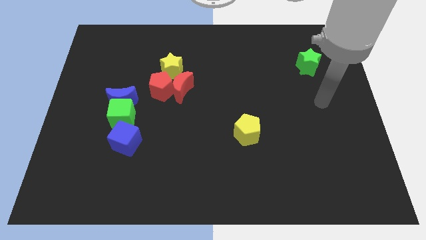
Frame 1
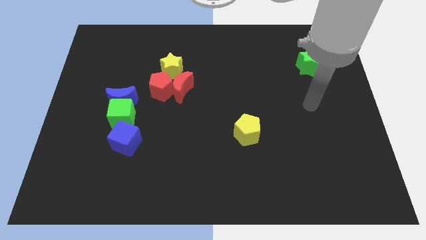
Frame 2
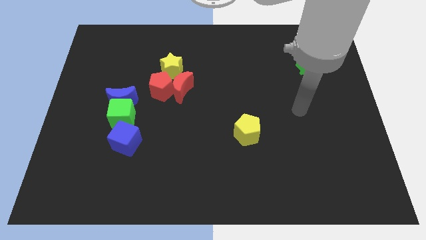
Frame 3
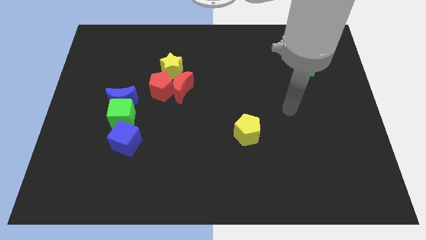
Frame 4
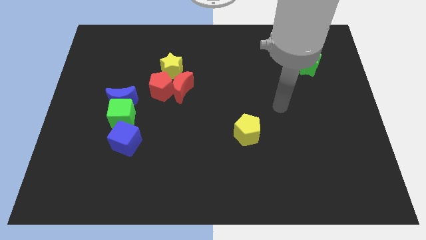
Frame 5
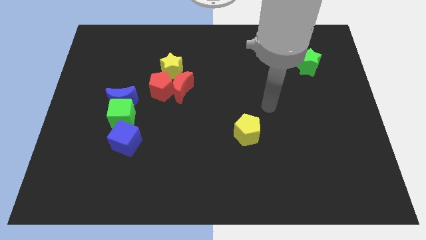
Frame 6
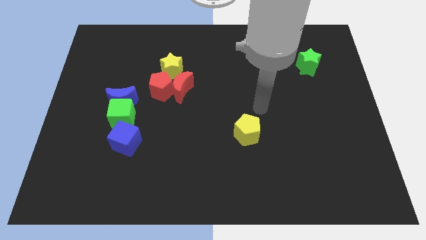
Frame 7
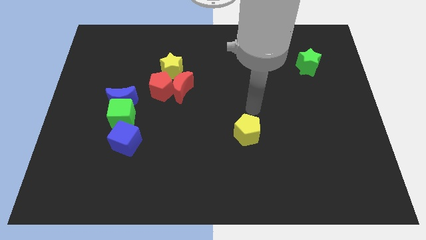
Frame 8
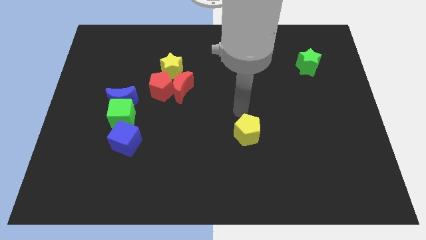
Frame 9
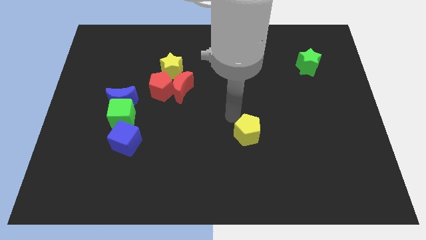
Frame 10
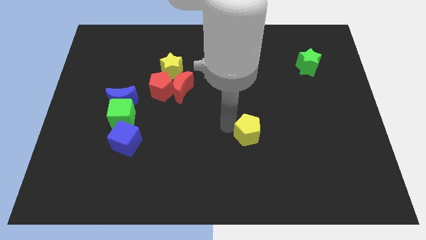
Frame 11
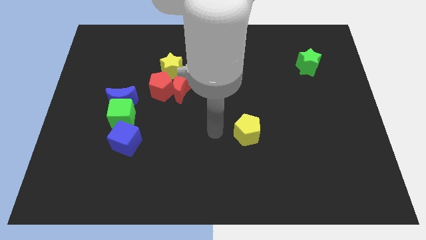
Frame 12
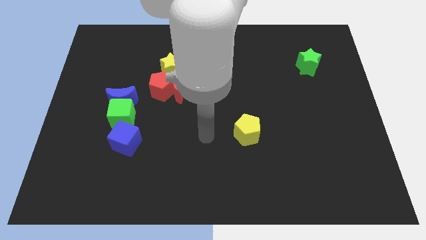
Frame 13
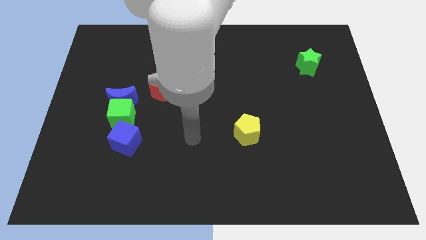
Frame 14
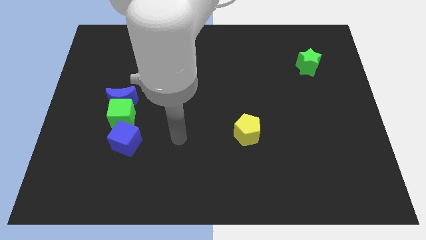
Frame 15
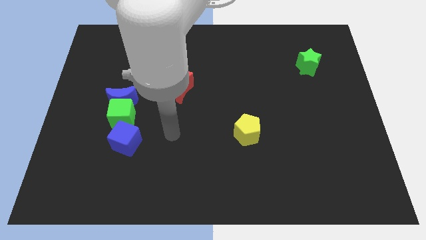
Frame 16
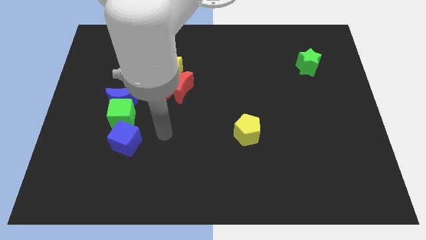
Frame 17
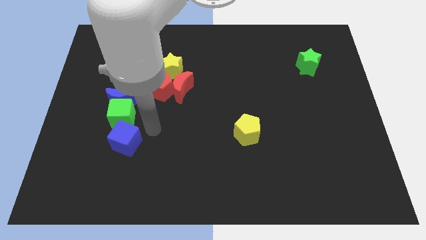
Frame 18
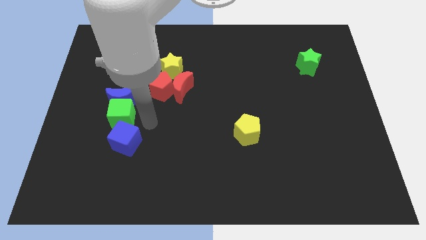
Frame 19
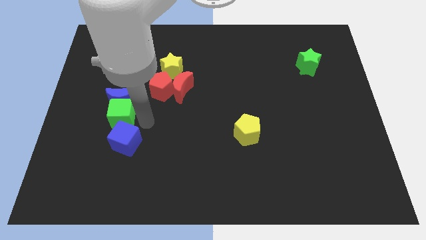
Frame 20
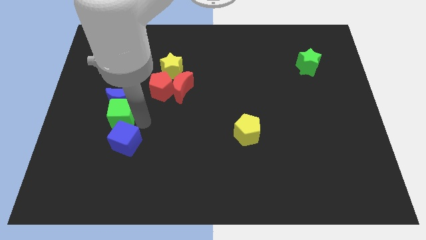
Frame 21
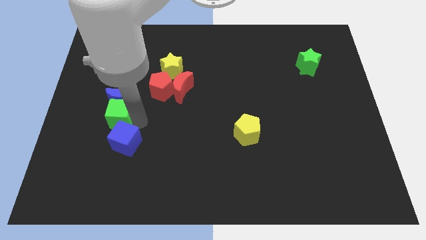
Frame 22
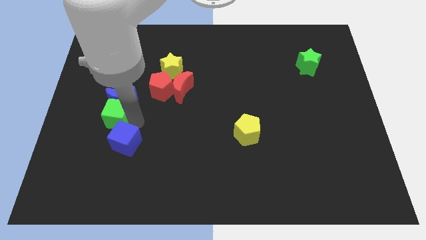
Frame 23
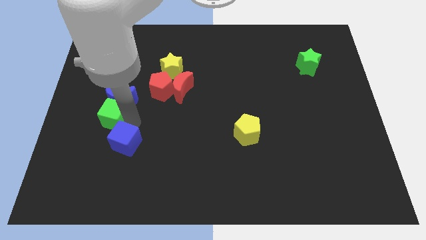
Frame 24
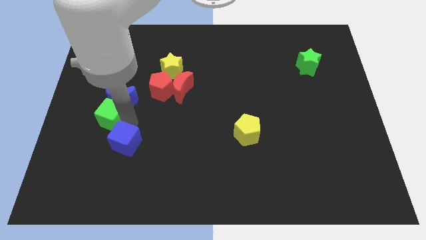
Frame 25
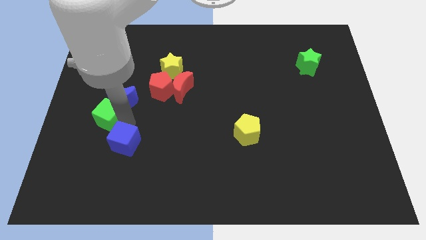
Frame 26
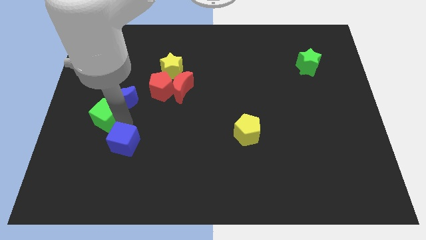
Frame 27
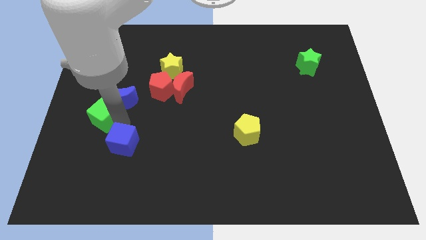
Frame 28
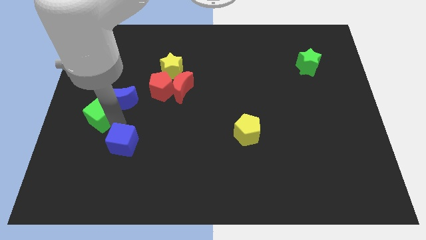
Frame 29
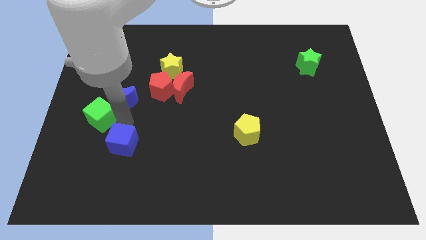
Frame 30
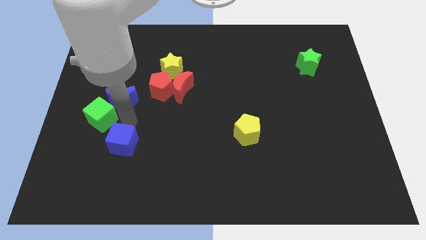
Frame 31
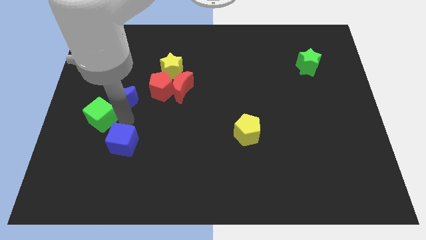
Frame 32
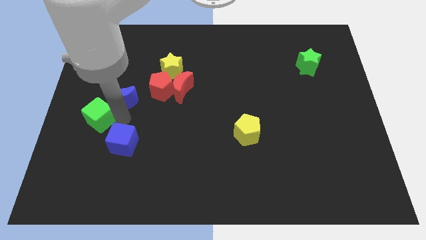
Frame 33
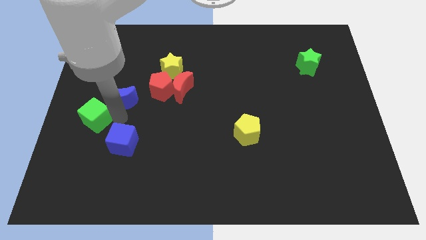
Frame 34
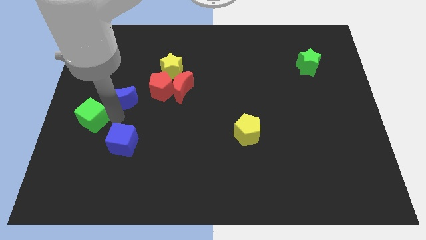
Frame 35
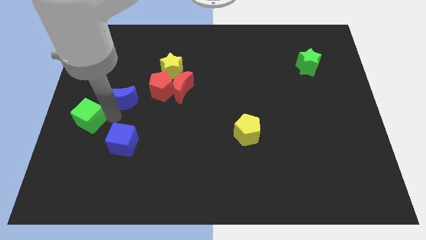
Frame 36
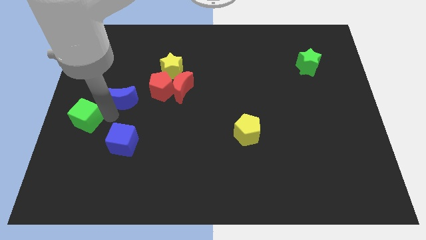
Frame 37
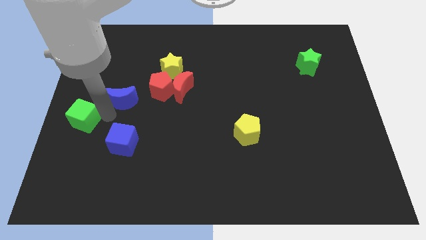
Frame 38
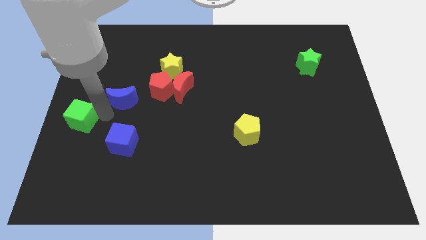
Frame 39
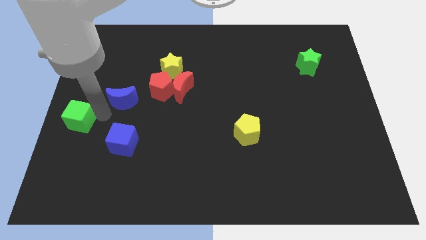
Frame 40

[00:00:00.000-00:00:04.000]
separate the green cube from the blue moon and blue cube

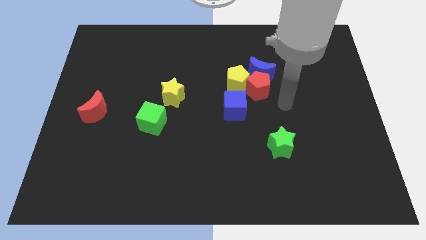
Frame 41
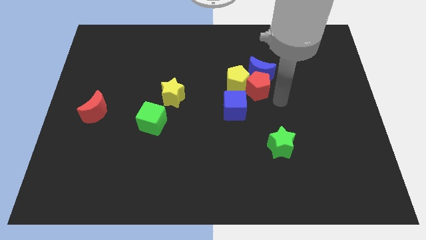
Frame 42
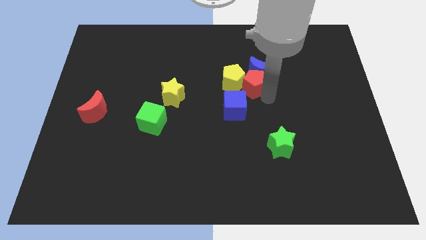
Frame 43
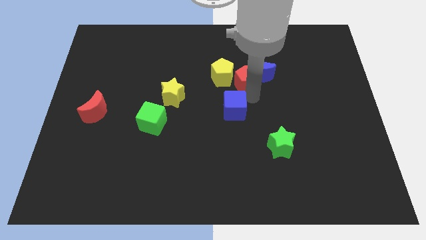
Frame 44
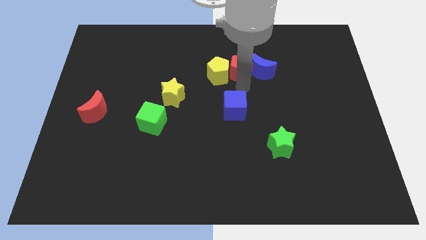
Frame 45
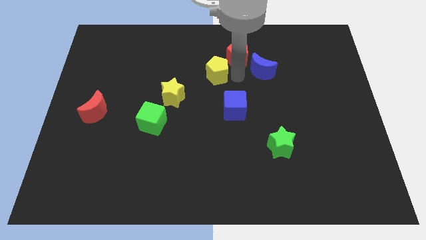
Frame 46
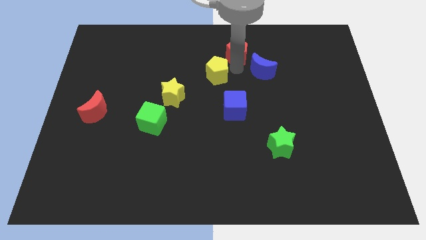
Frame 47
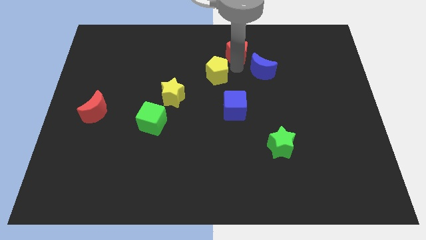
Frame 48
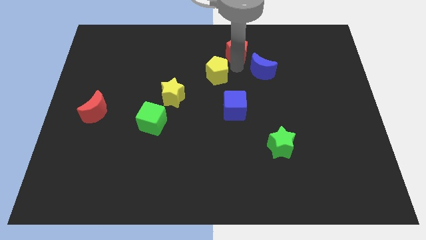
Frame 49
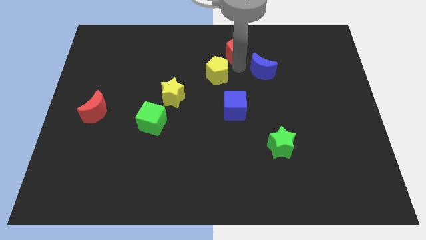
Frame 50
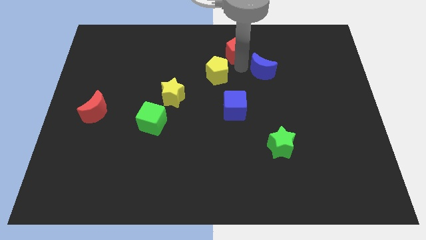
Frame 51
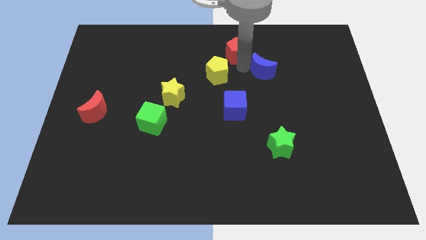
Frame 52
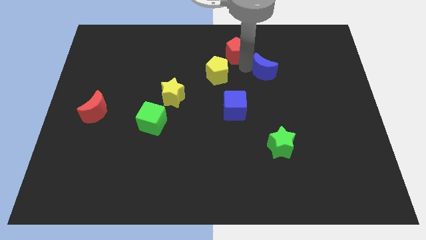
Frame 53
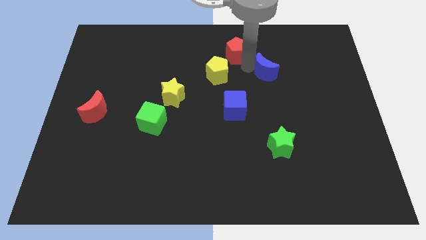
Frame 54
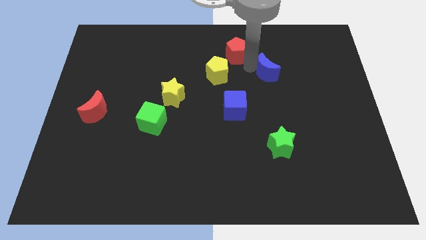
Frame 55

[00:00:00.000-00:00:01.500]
move the blue moon away from the red pentagon and yellow pentagon

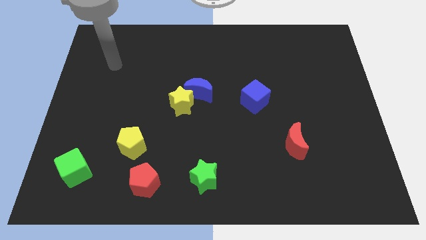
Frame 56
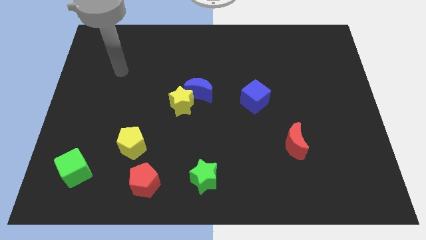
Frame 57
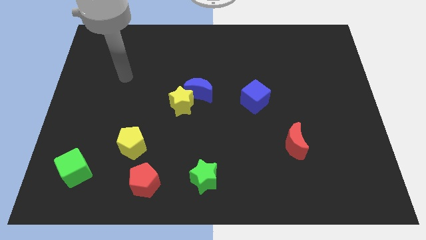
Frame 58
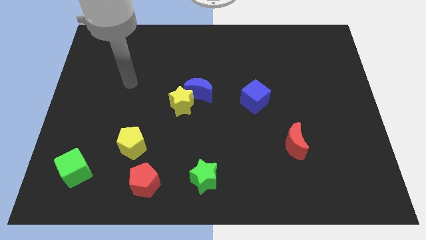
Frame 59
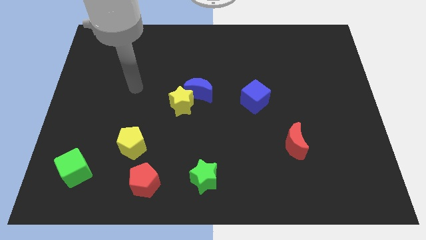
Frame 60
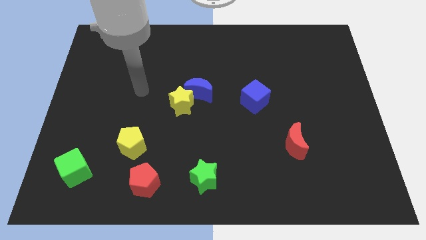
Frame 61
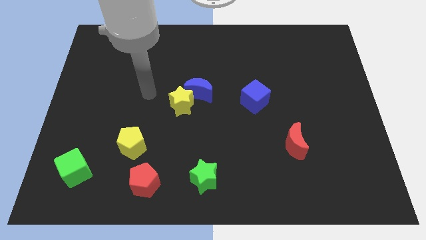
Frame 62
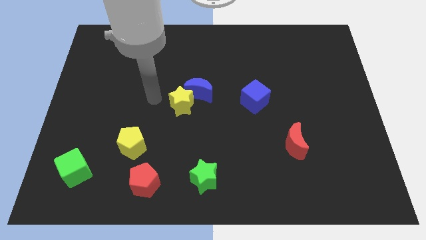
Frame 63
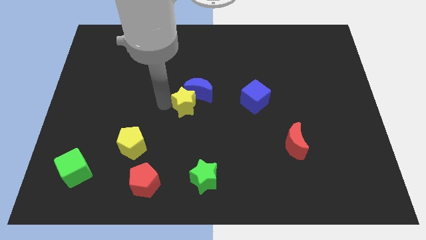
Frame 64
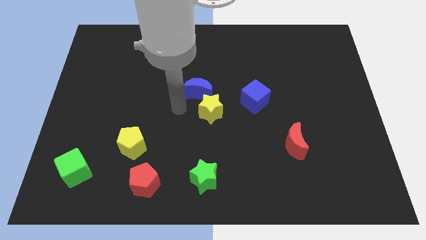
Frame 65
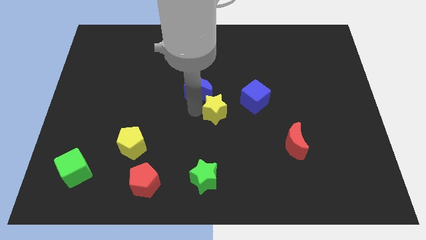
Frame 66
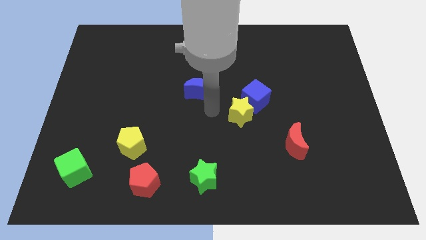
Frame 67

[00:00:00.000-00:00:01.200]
move the blue moon away from the yellow star

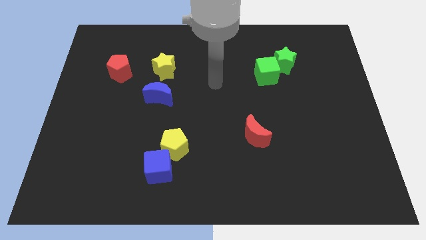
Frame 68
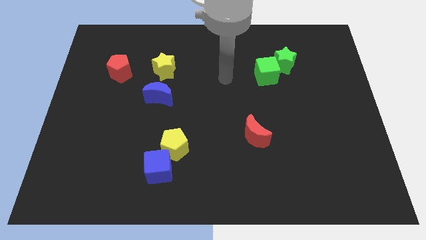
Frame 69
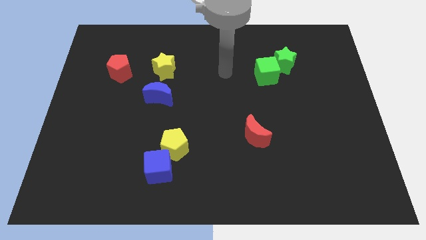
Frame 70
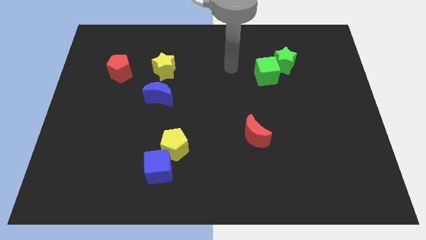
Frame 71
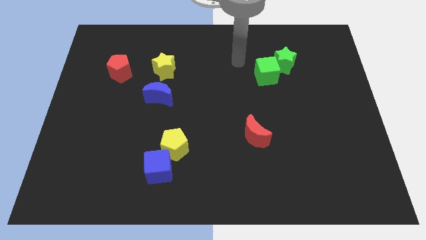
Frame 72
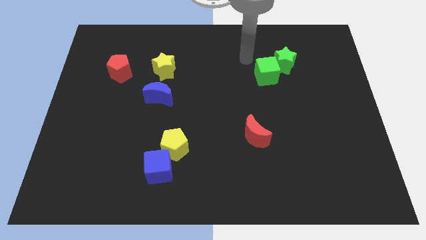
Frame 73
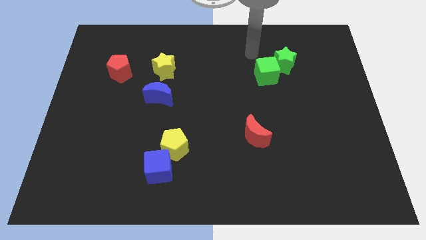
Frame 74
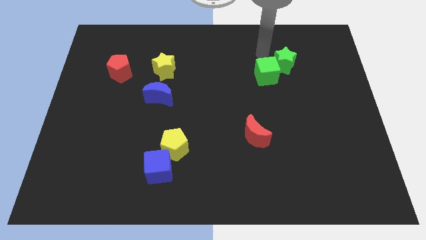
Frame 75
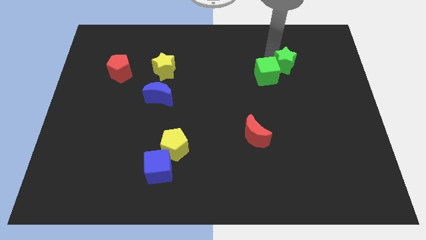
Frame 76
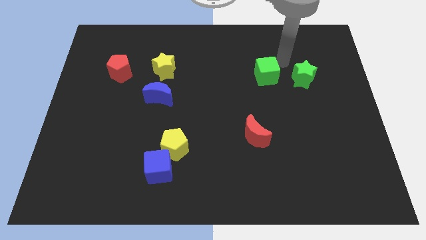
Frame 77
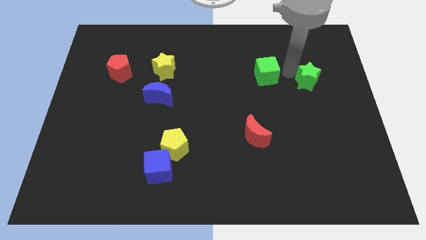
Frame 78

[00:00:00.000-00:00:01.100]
move the green cube away from the green star

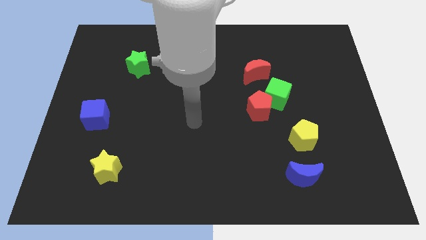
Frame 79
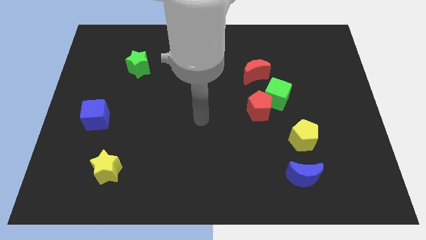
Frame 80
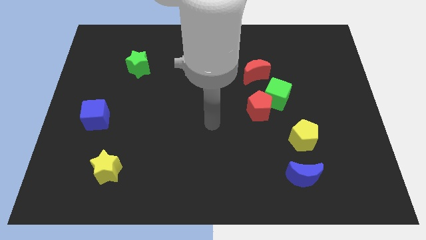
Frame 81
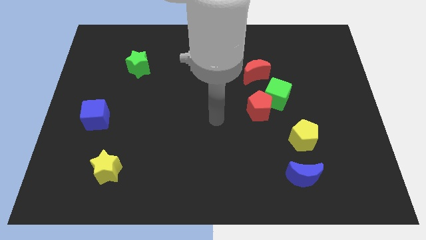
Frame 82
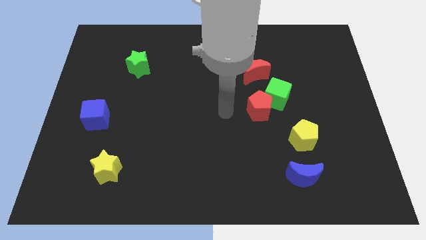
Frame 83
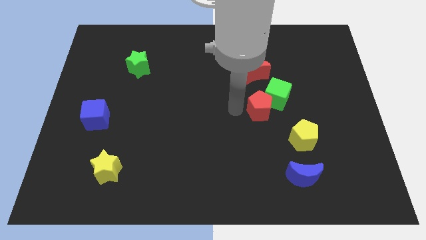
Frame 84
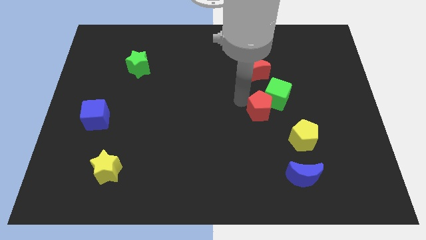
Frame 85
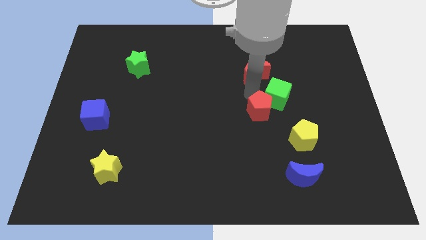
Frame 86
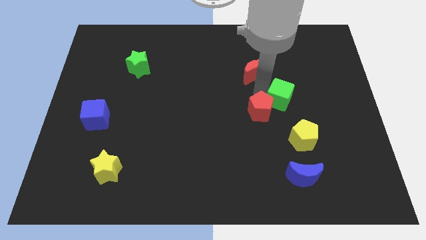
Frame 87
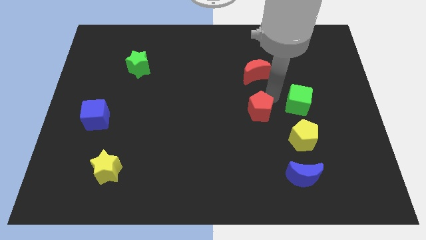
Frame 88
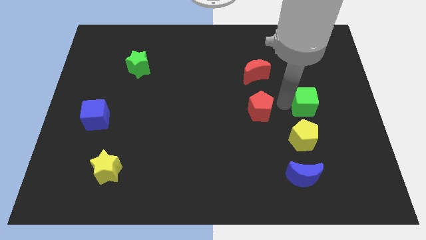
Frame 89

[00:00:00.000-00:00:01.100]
pull the red pentagon apart from the green cube

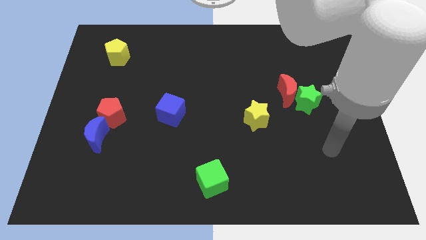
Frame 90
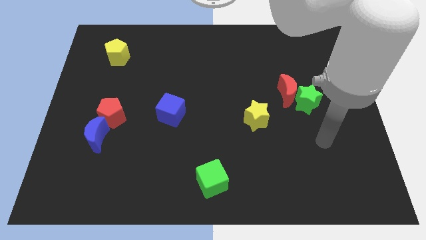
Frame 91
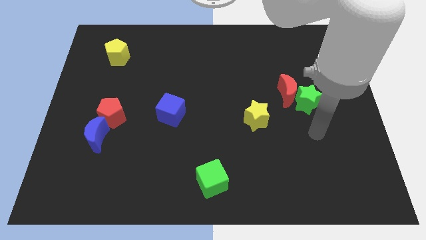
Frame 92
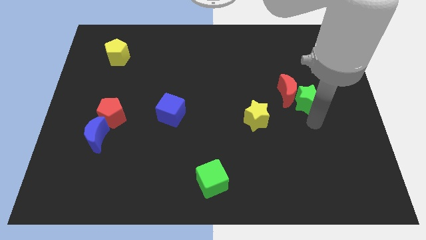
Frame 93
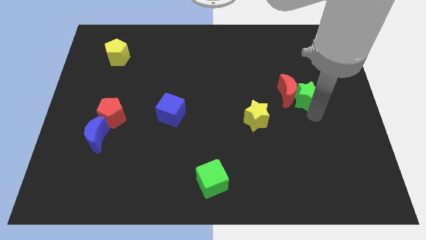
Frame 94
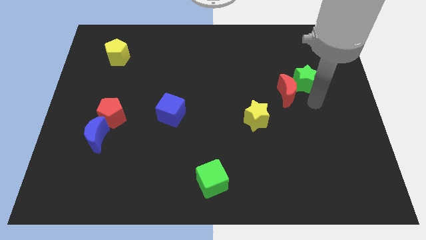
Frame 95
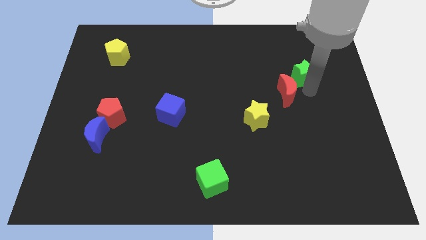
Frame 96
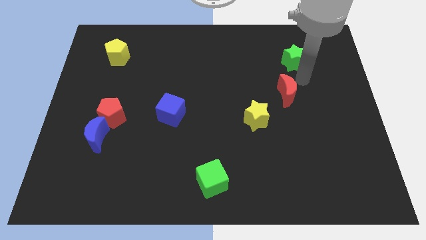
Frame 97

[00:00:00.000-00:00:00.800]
pull the red moon apart from the green star
